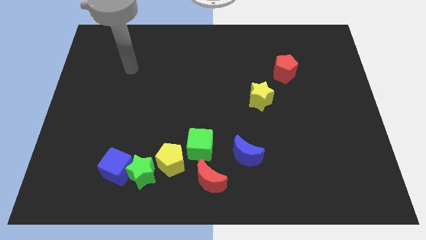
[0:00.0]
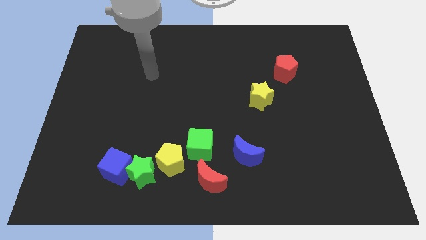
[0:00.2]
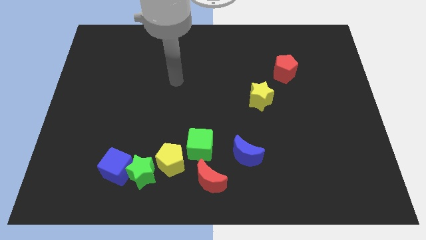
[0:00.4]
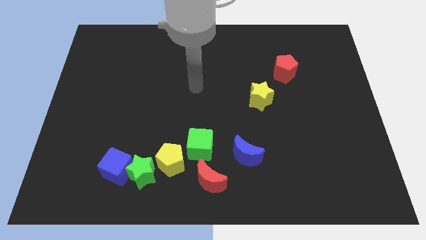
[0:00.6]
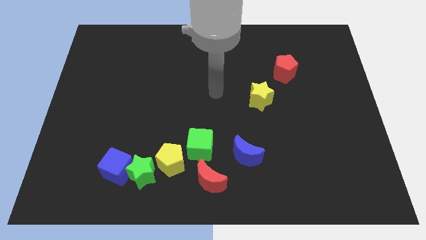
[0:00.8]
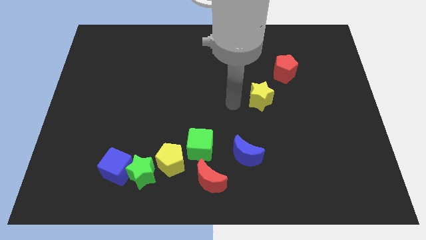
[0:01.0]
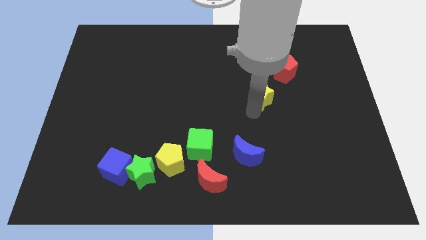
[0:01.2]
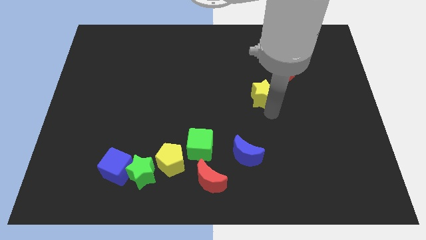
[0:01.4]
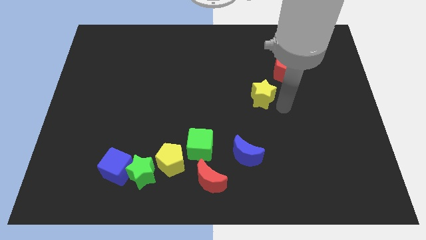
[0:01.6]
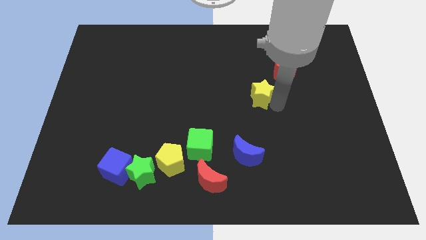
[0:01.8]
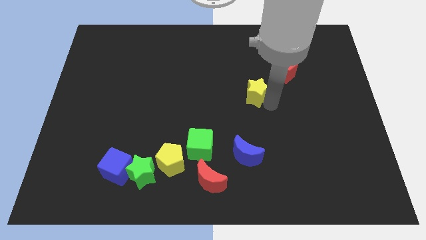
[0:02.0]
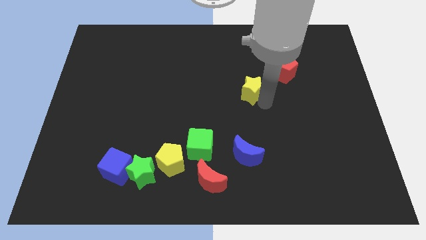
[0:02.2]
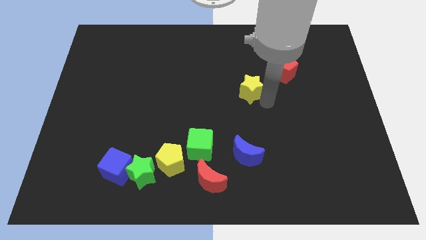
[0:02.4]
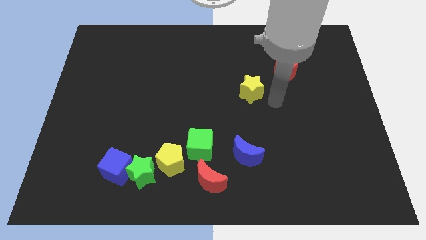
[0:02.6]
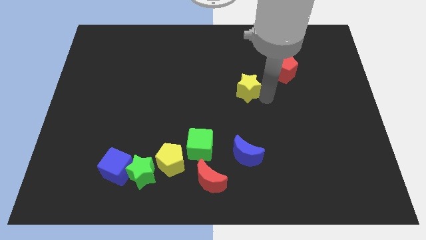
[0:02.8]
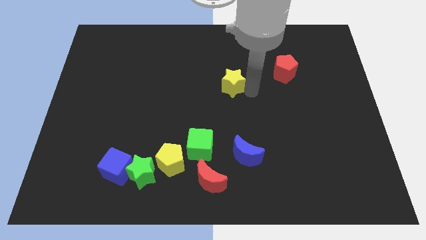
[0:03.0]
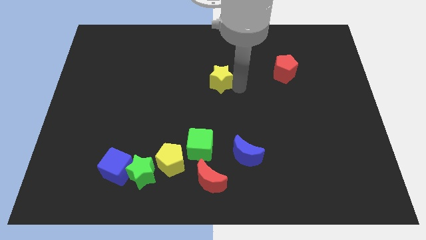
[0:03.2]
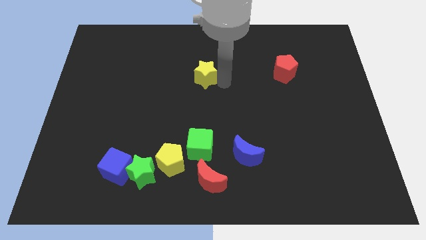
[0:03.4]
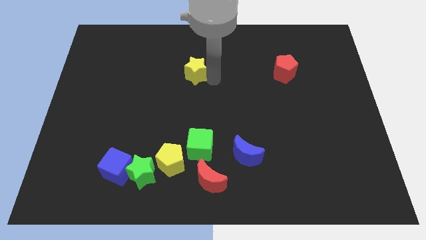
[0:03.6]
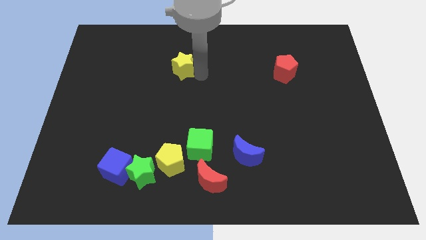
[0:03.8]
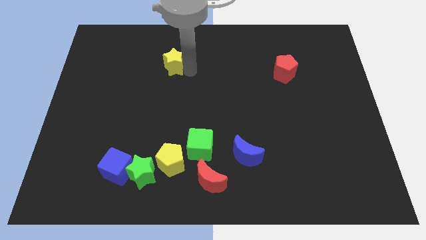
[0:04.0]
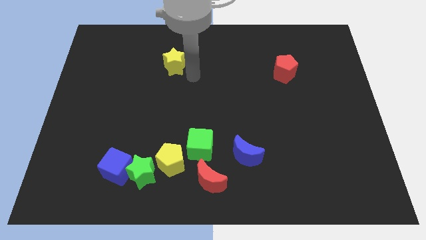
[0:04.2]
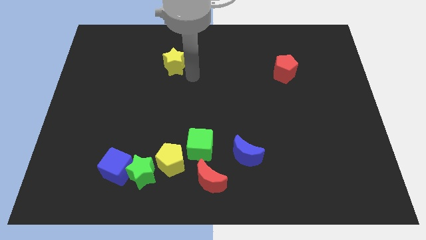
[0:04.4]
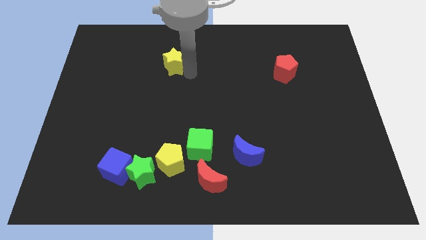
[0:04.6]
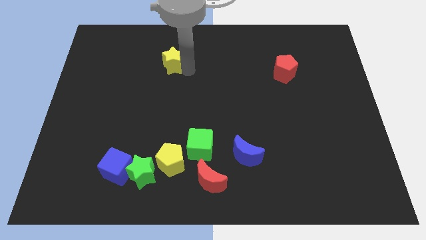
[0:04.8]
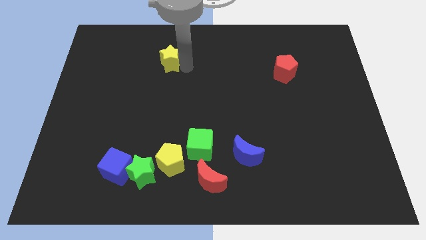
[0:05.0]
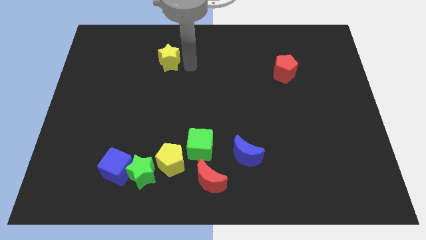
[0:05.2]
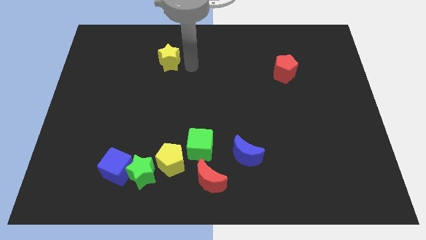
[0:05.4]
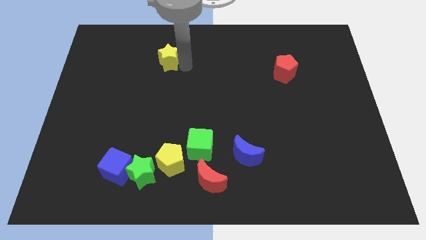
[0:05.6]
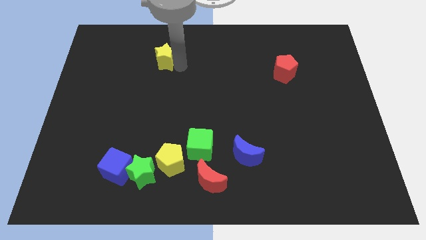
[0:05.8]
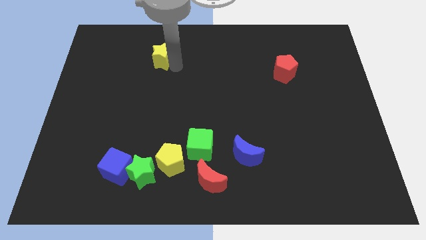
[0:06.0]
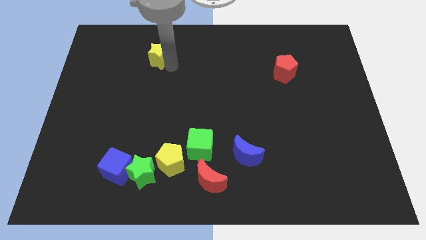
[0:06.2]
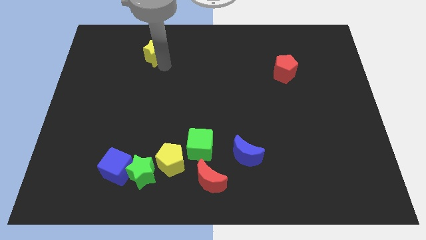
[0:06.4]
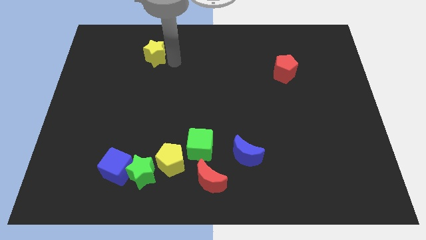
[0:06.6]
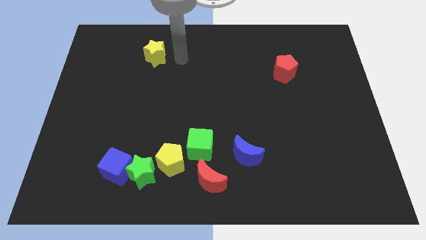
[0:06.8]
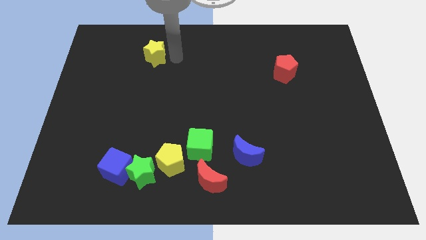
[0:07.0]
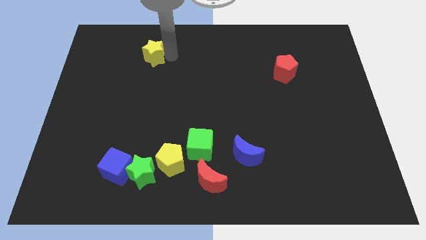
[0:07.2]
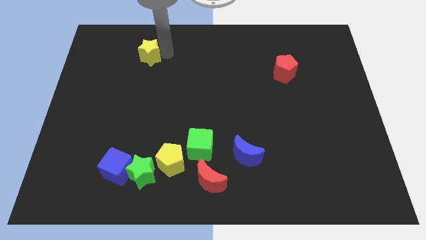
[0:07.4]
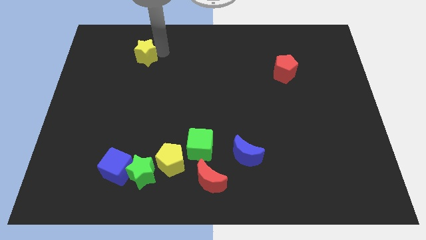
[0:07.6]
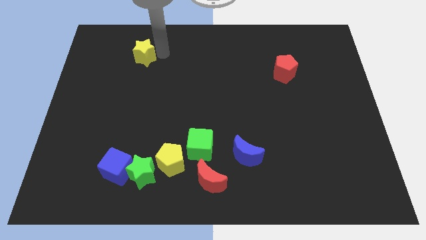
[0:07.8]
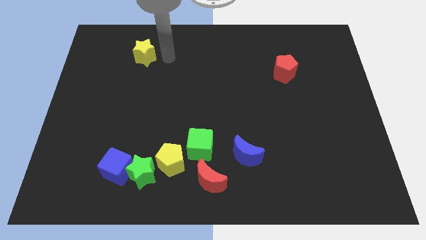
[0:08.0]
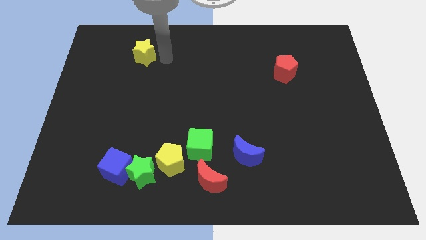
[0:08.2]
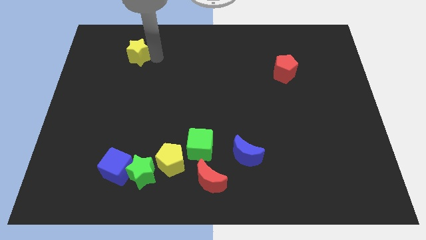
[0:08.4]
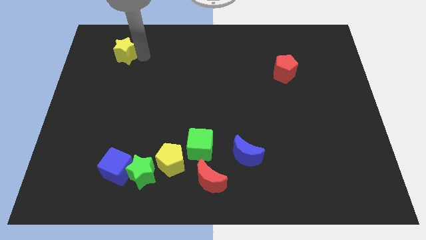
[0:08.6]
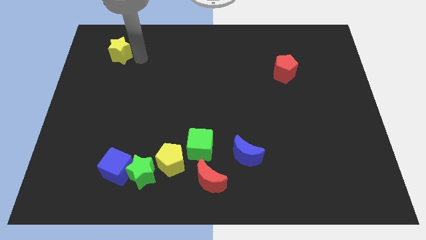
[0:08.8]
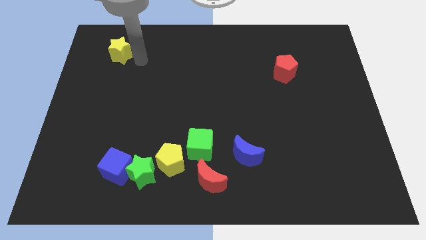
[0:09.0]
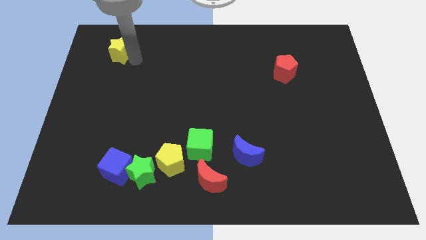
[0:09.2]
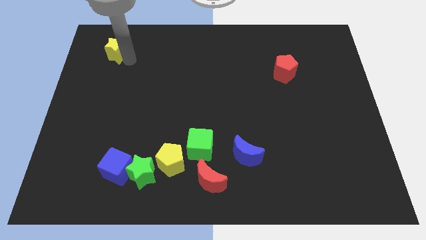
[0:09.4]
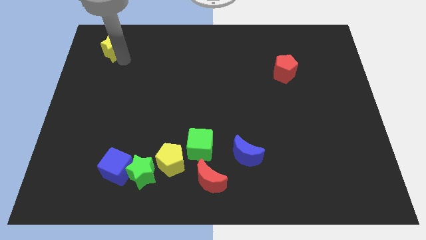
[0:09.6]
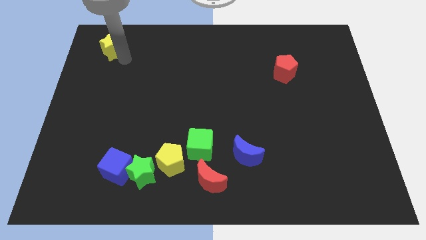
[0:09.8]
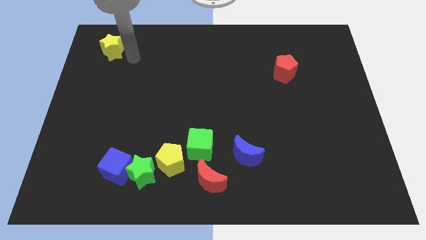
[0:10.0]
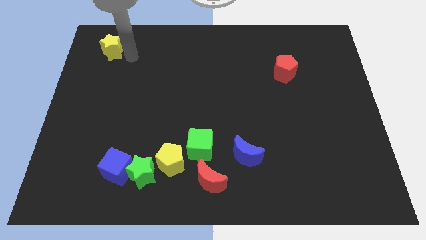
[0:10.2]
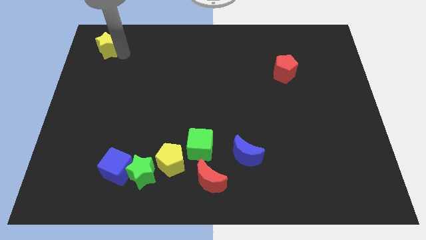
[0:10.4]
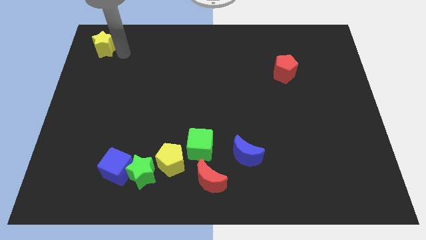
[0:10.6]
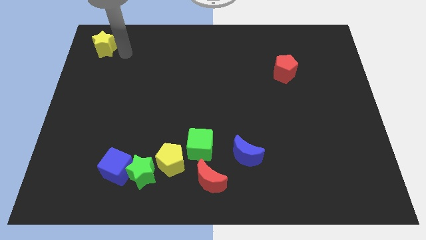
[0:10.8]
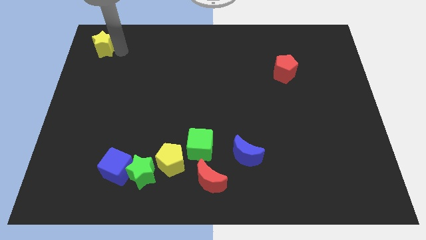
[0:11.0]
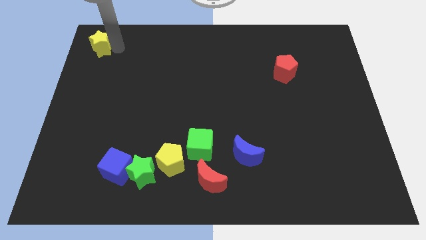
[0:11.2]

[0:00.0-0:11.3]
put the yellow star to the top left of the board

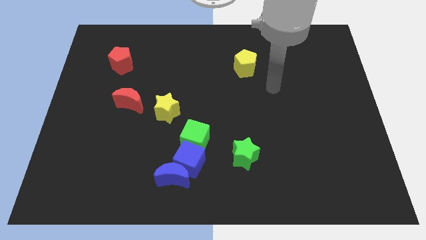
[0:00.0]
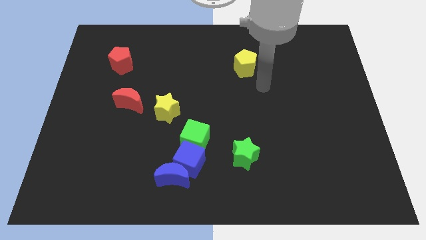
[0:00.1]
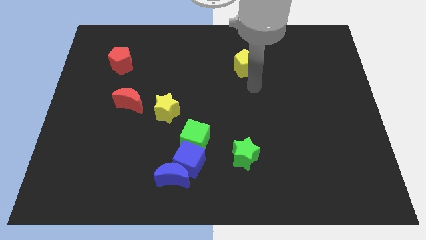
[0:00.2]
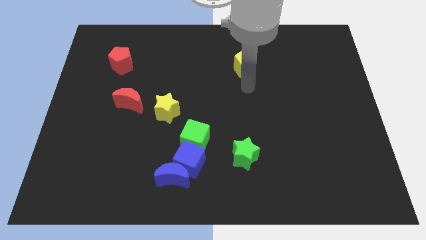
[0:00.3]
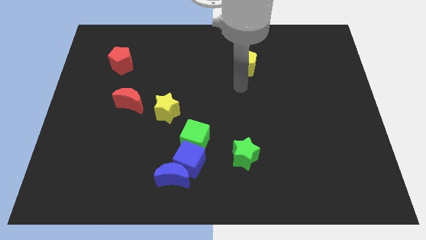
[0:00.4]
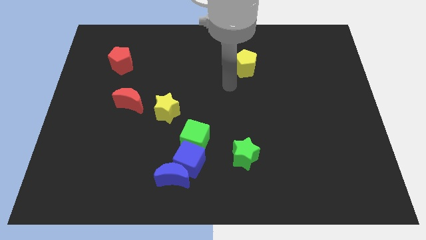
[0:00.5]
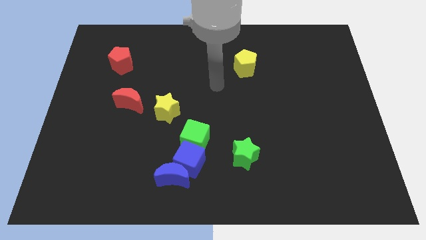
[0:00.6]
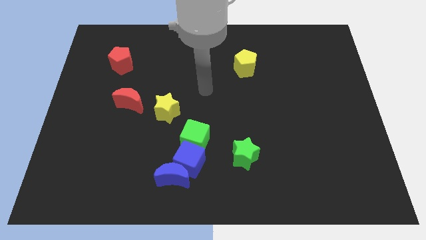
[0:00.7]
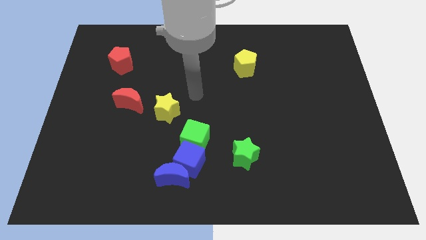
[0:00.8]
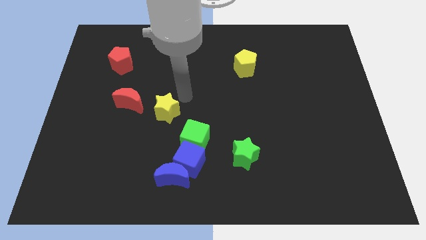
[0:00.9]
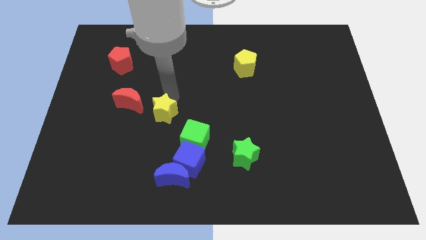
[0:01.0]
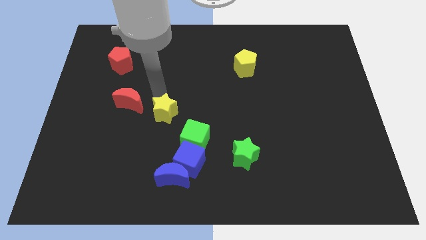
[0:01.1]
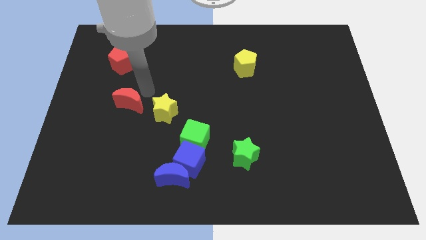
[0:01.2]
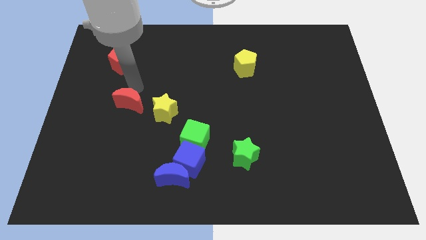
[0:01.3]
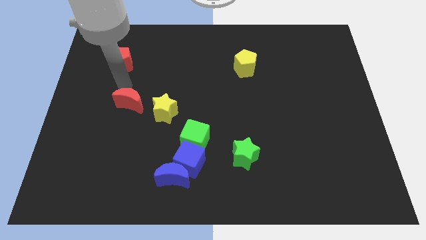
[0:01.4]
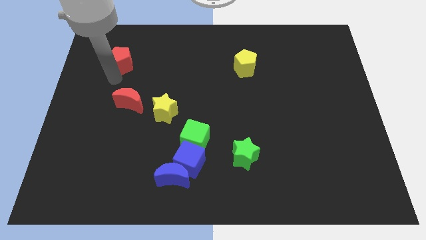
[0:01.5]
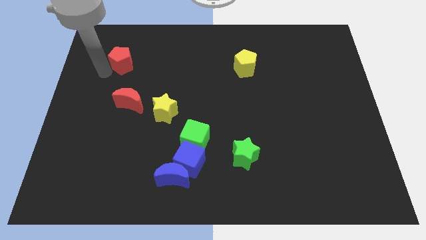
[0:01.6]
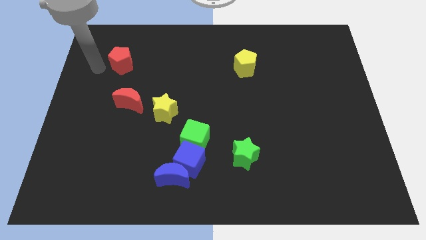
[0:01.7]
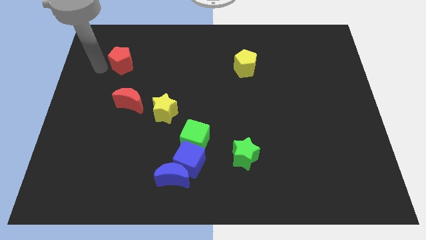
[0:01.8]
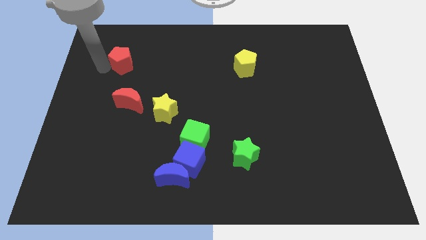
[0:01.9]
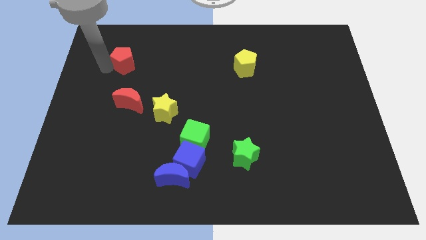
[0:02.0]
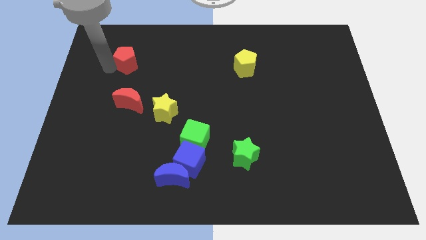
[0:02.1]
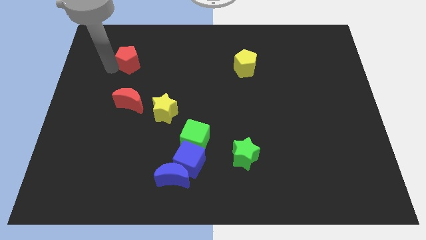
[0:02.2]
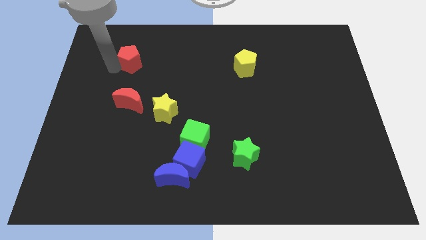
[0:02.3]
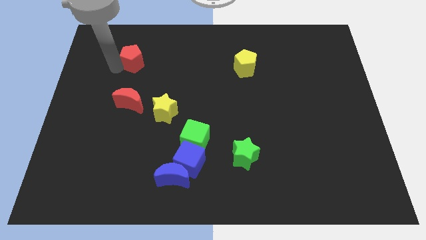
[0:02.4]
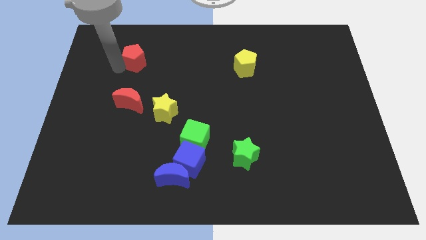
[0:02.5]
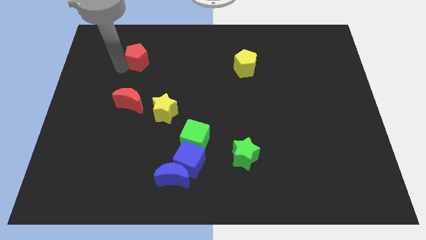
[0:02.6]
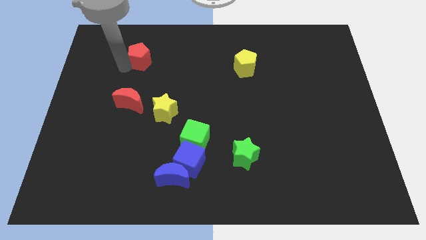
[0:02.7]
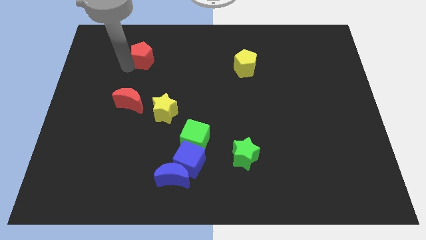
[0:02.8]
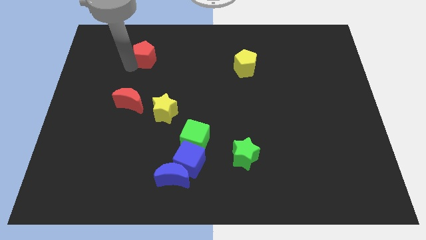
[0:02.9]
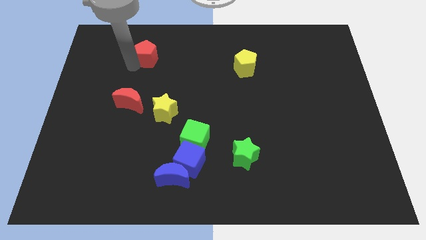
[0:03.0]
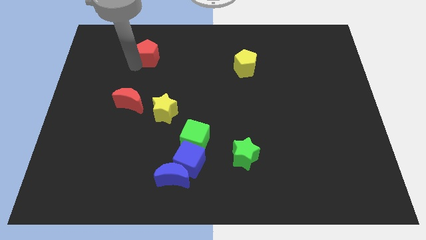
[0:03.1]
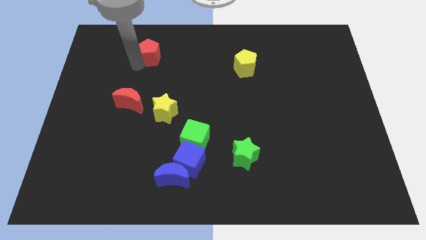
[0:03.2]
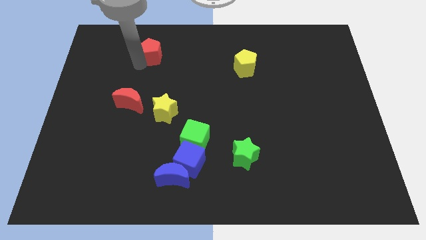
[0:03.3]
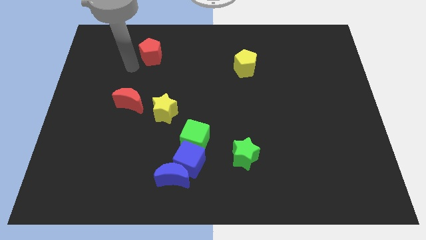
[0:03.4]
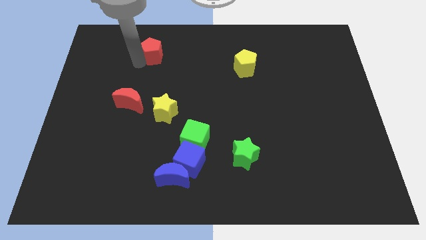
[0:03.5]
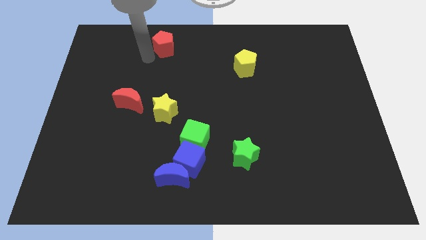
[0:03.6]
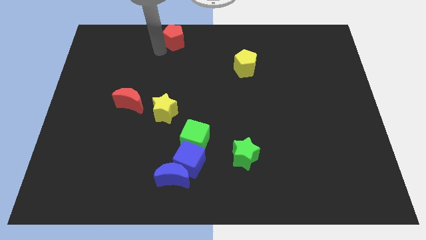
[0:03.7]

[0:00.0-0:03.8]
push the red pentagon to the top
